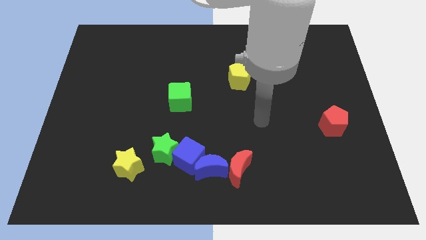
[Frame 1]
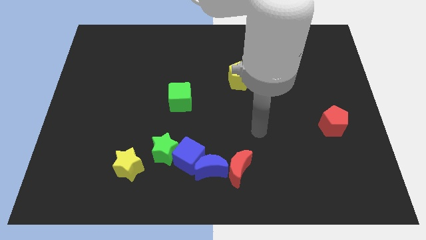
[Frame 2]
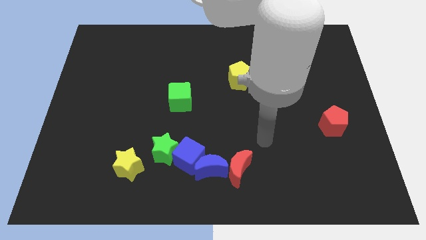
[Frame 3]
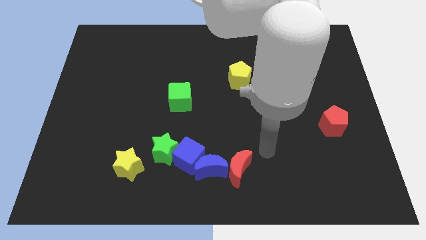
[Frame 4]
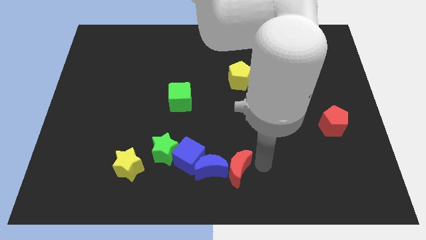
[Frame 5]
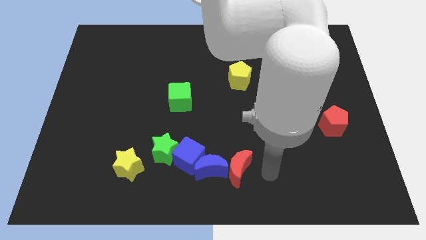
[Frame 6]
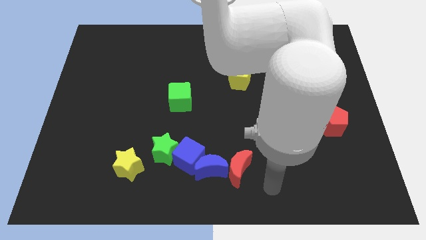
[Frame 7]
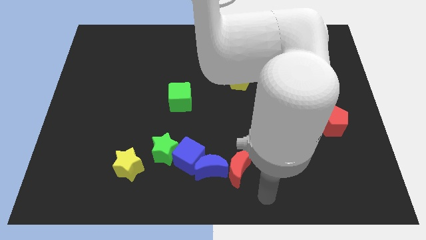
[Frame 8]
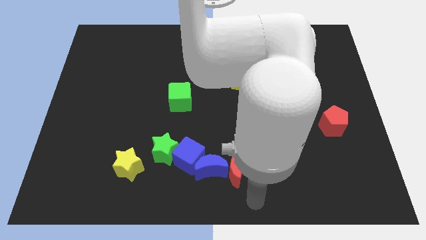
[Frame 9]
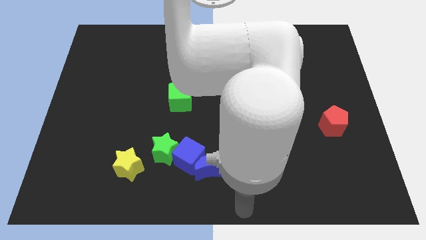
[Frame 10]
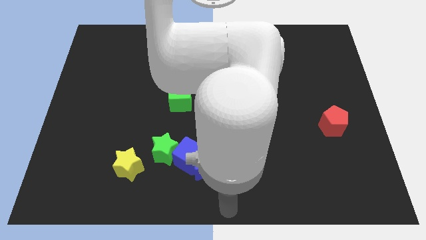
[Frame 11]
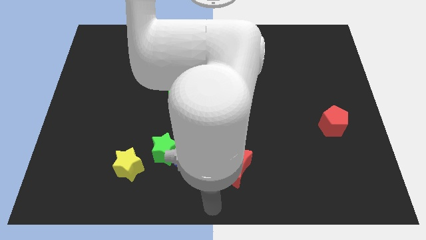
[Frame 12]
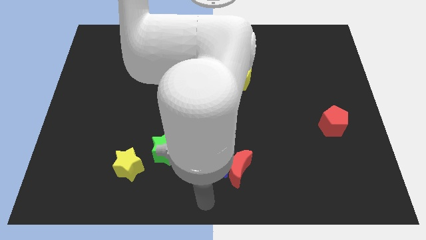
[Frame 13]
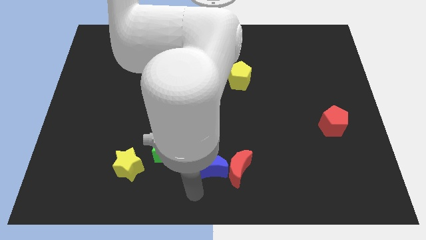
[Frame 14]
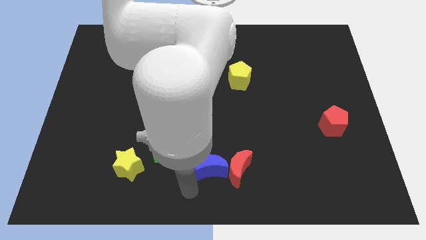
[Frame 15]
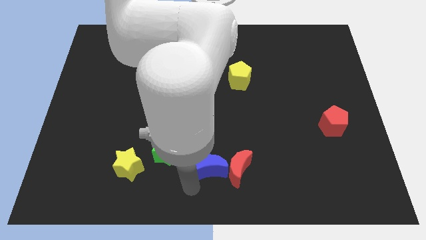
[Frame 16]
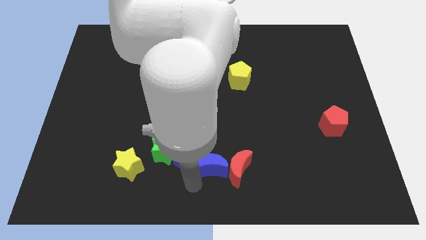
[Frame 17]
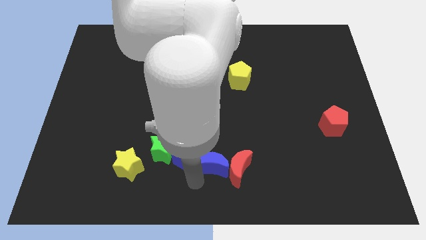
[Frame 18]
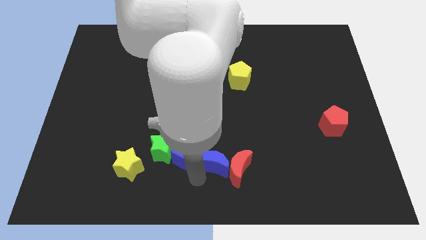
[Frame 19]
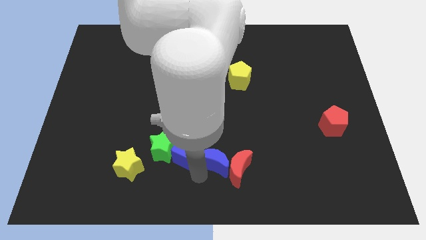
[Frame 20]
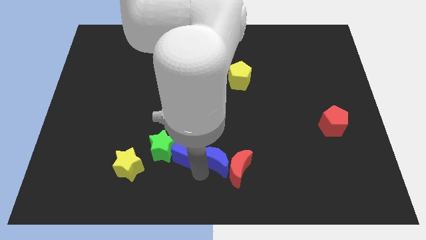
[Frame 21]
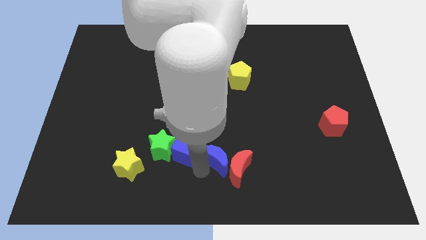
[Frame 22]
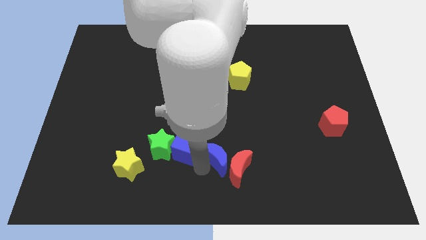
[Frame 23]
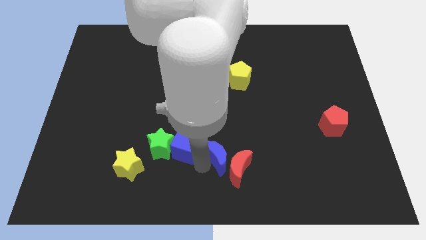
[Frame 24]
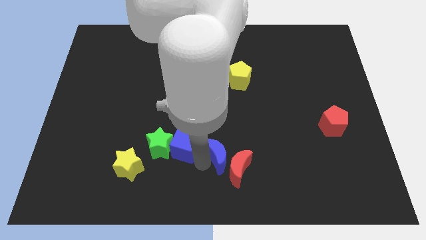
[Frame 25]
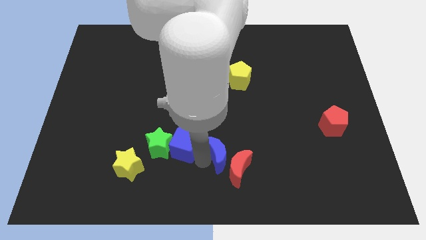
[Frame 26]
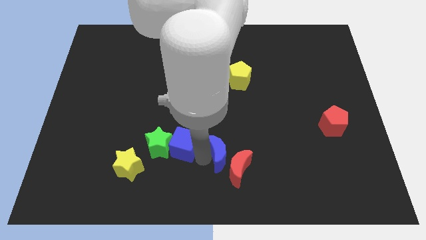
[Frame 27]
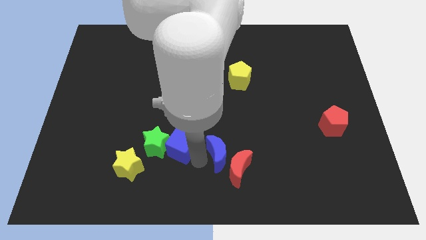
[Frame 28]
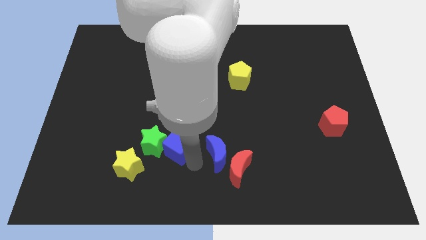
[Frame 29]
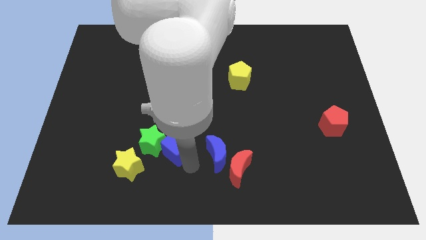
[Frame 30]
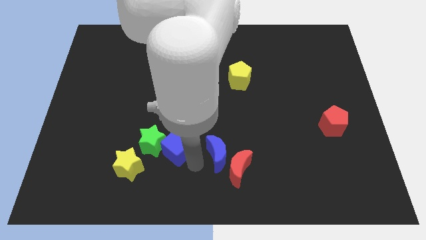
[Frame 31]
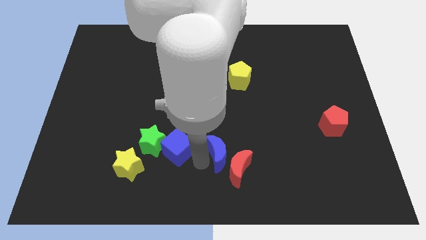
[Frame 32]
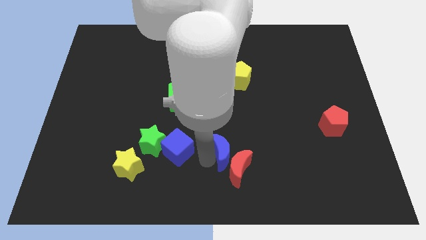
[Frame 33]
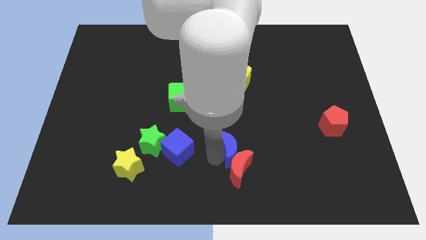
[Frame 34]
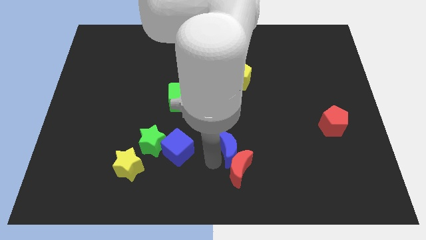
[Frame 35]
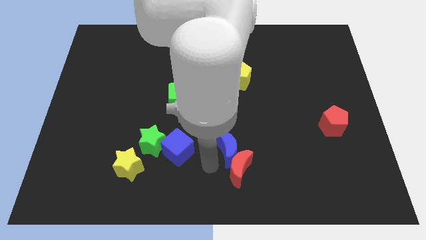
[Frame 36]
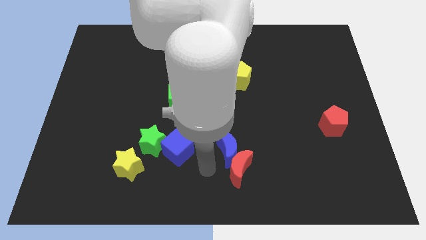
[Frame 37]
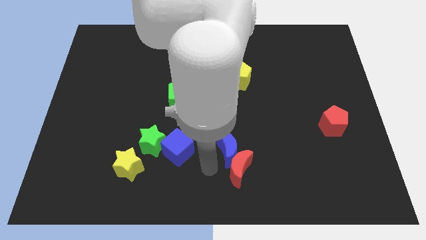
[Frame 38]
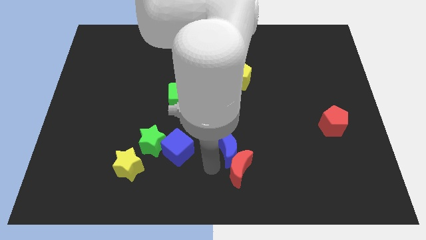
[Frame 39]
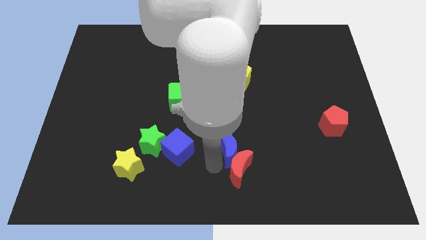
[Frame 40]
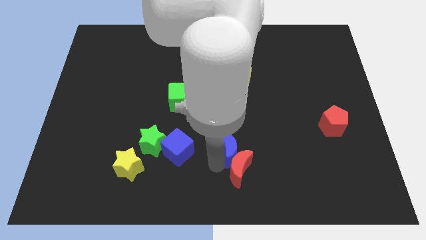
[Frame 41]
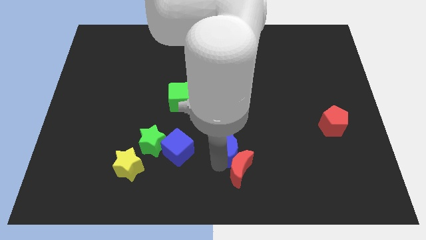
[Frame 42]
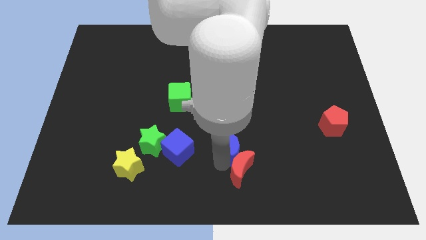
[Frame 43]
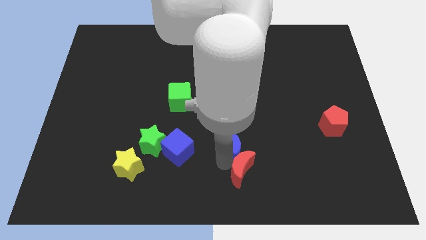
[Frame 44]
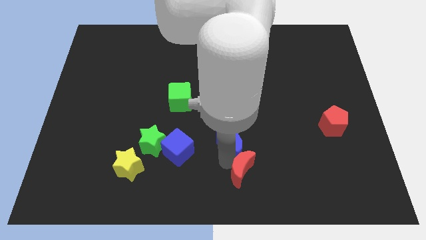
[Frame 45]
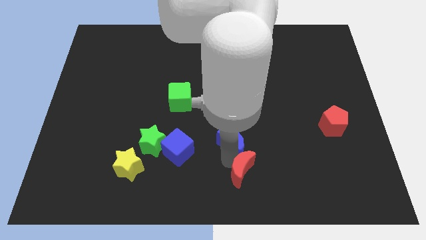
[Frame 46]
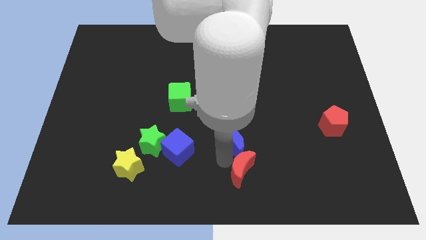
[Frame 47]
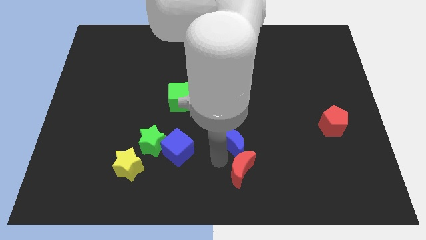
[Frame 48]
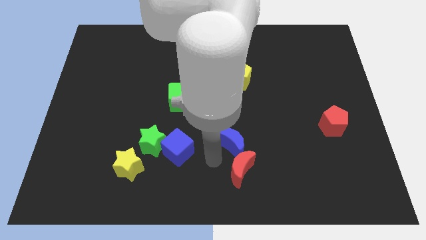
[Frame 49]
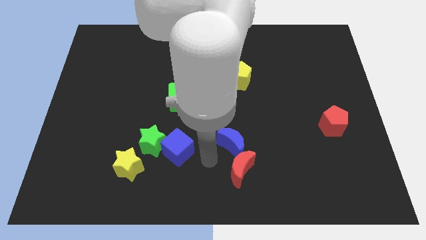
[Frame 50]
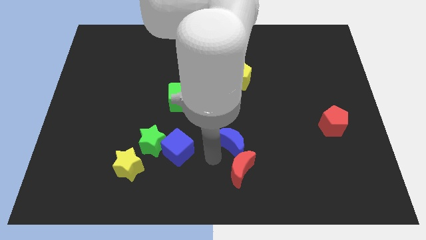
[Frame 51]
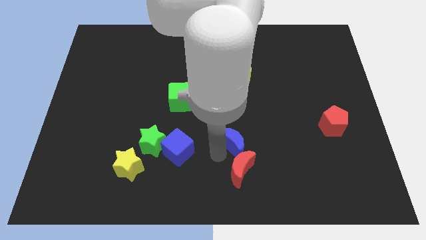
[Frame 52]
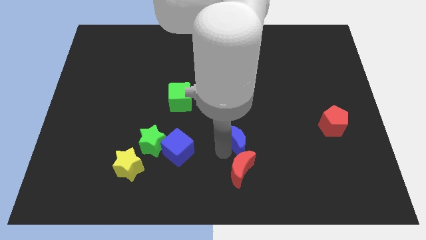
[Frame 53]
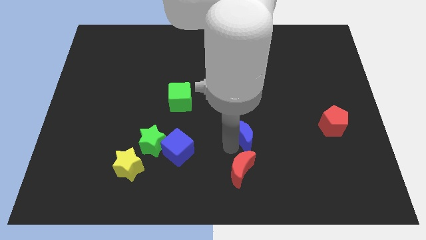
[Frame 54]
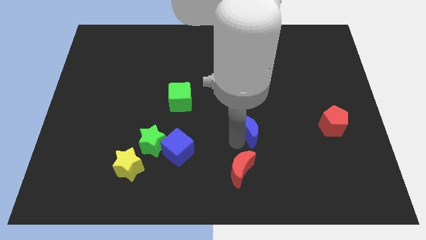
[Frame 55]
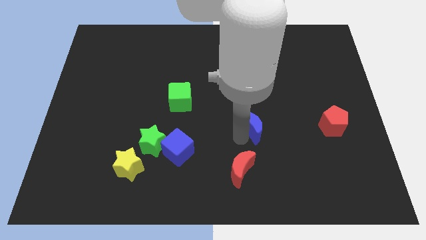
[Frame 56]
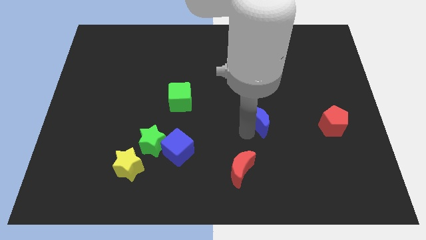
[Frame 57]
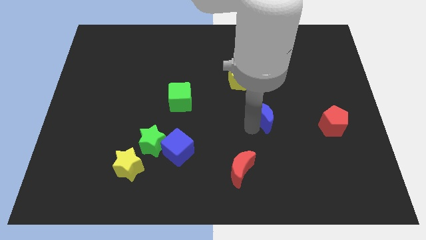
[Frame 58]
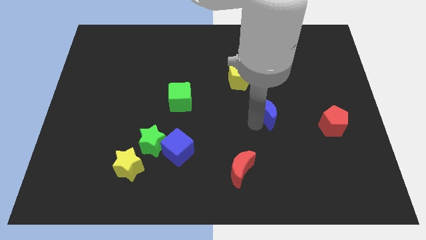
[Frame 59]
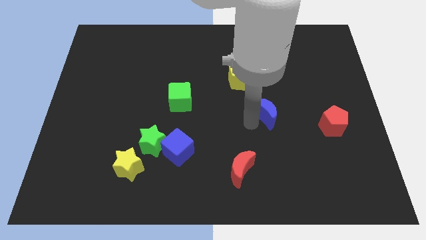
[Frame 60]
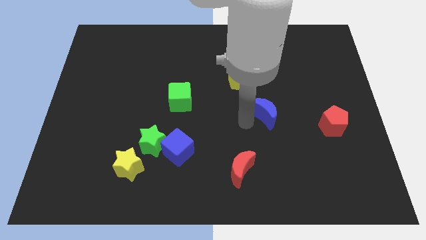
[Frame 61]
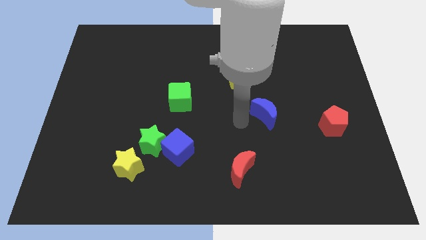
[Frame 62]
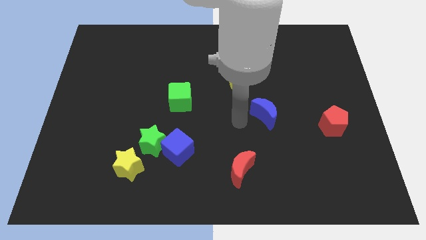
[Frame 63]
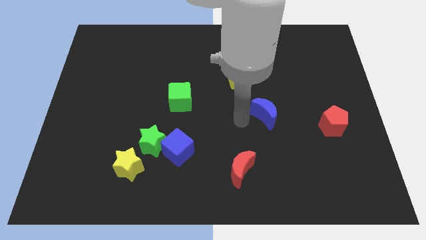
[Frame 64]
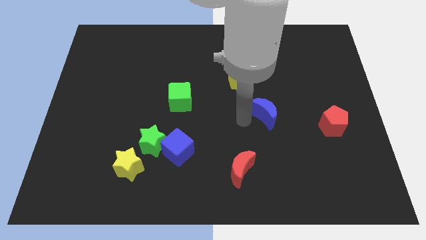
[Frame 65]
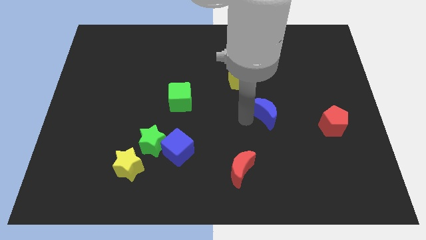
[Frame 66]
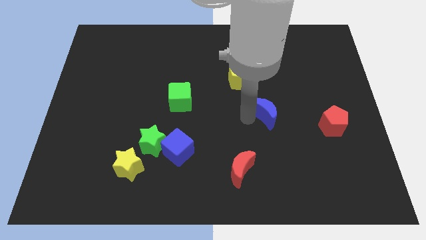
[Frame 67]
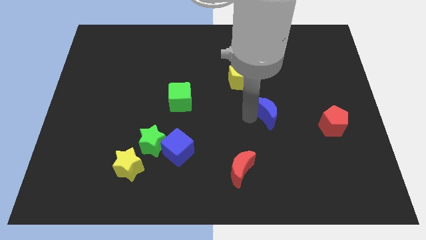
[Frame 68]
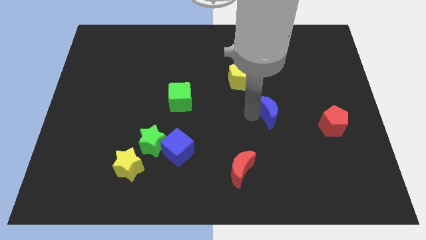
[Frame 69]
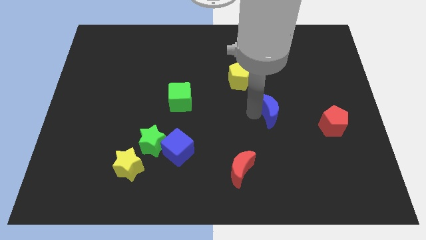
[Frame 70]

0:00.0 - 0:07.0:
move the blue moon diagonally up and right

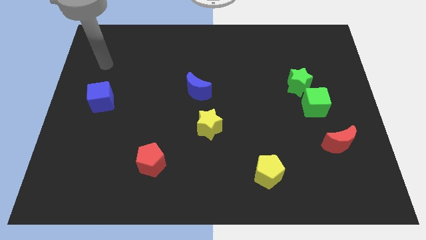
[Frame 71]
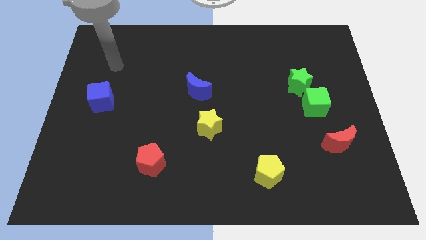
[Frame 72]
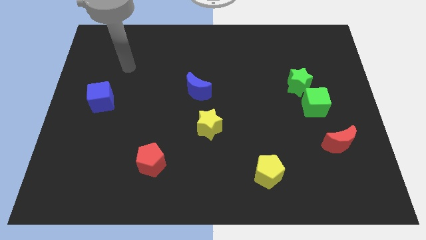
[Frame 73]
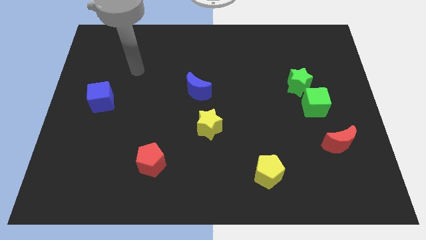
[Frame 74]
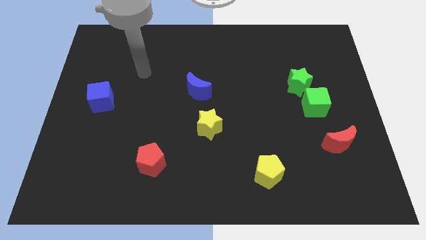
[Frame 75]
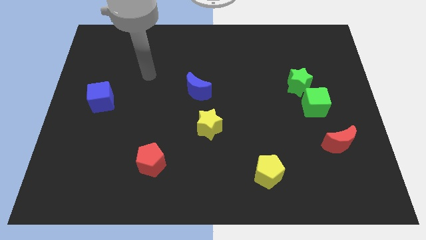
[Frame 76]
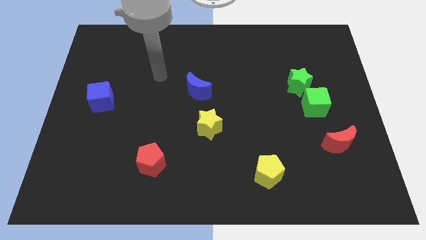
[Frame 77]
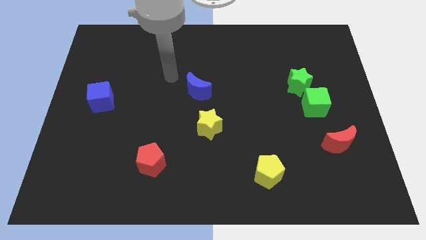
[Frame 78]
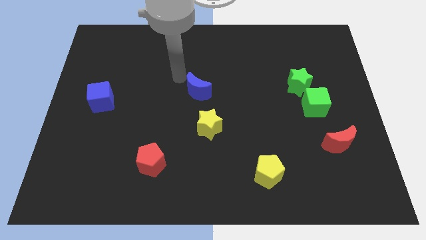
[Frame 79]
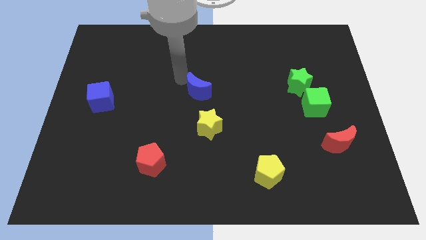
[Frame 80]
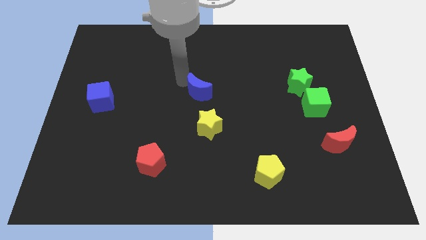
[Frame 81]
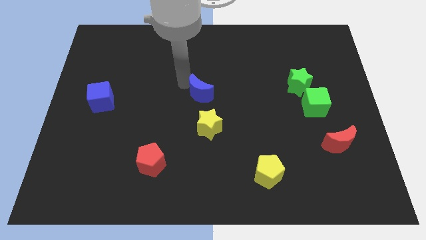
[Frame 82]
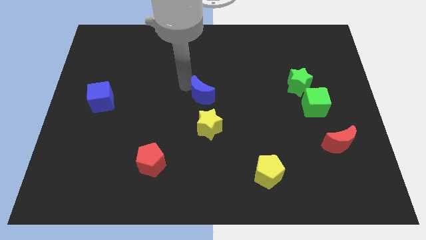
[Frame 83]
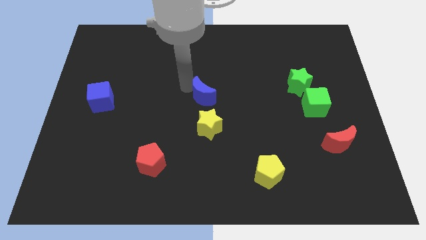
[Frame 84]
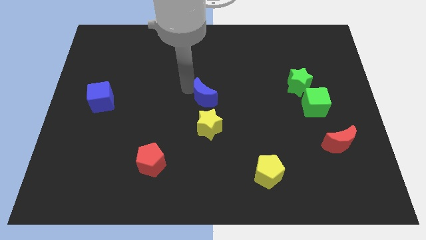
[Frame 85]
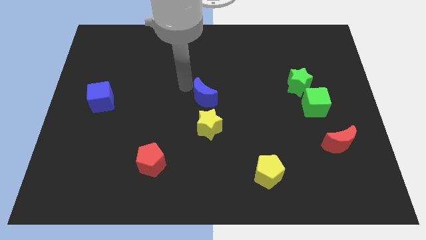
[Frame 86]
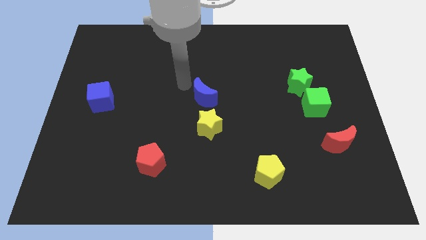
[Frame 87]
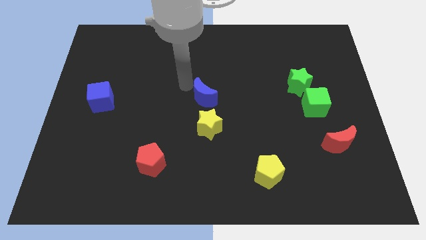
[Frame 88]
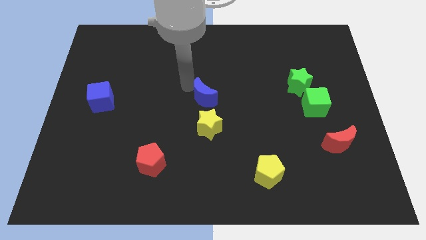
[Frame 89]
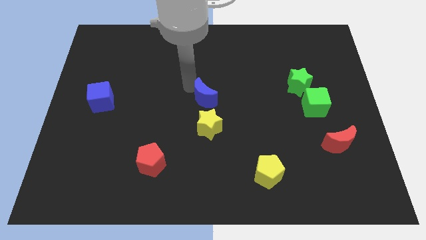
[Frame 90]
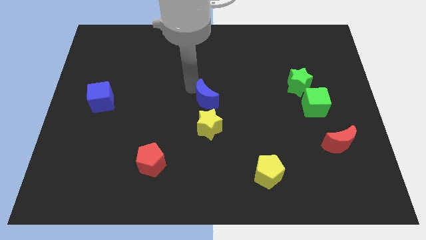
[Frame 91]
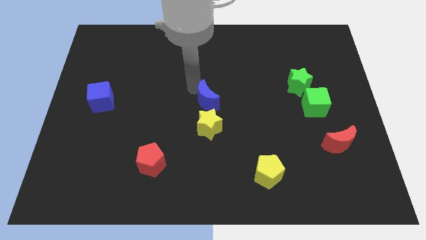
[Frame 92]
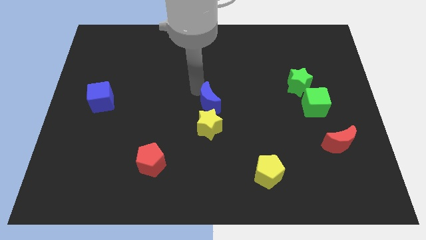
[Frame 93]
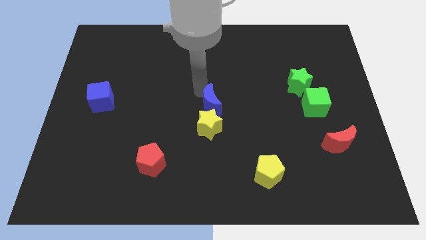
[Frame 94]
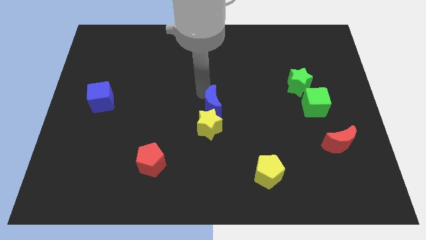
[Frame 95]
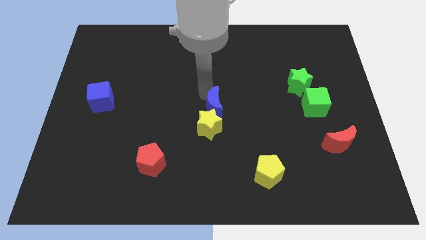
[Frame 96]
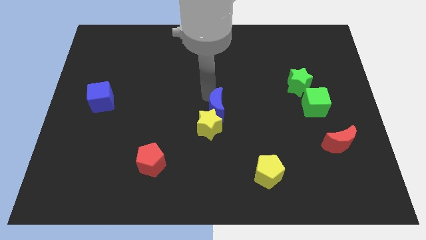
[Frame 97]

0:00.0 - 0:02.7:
slightly slide the blue moon down and to the right diagonally
